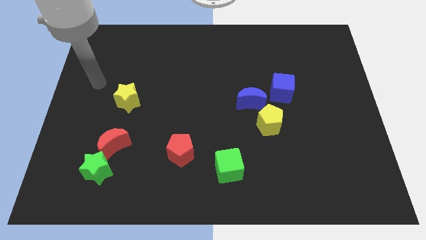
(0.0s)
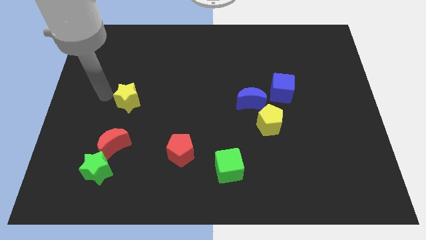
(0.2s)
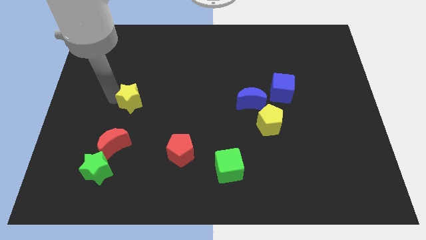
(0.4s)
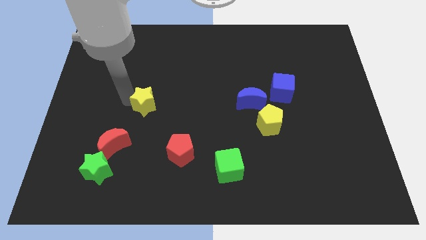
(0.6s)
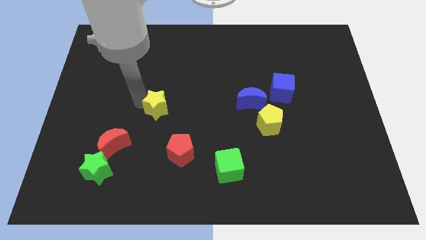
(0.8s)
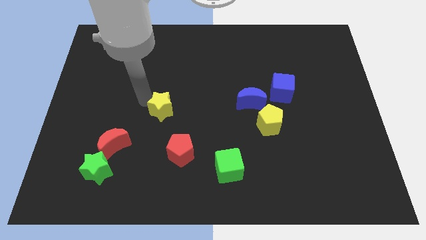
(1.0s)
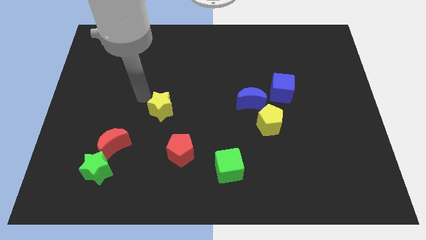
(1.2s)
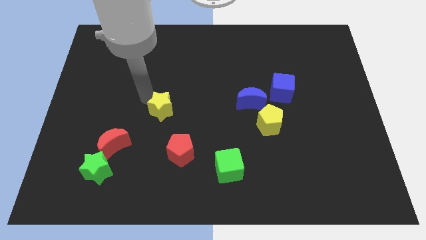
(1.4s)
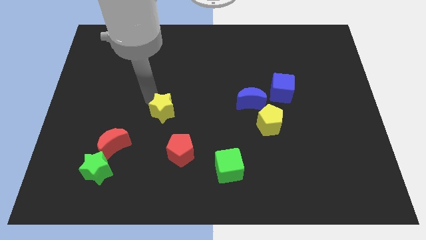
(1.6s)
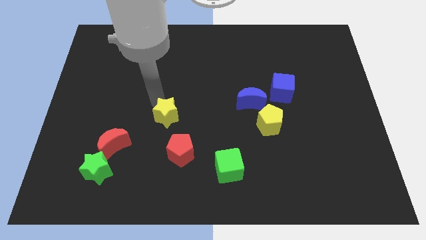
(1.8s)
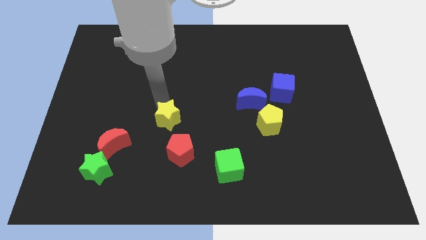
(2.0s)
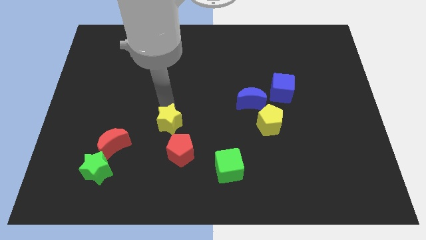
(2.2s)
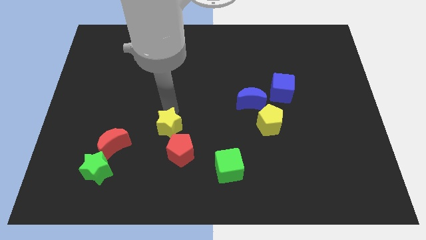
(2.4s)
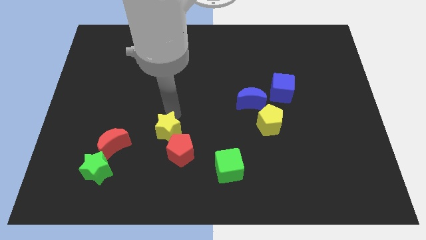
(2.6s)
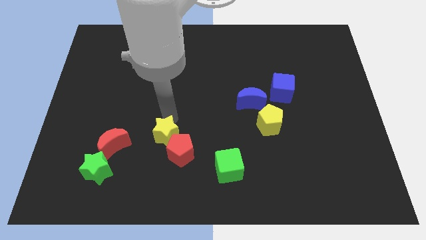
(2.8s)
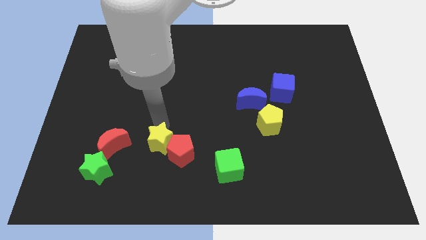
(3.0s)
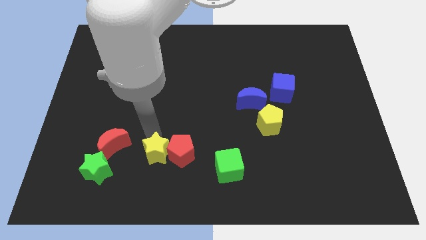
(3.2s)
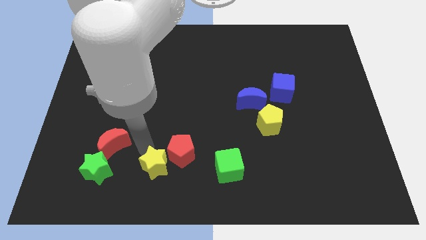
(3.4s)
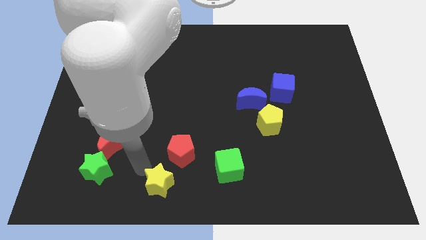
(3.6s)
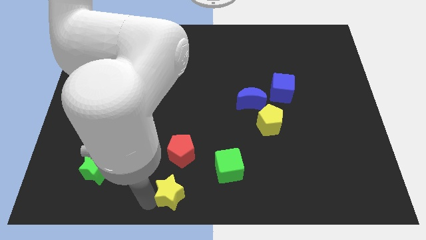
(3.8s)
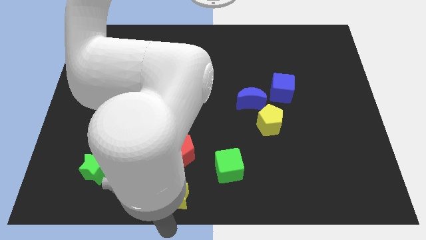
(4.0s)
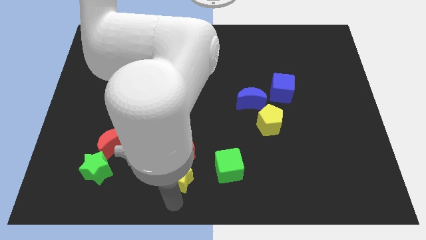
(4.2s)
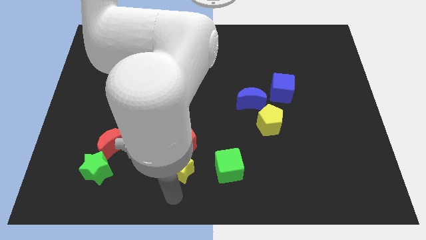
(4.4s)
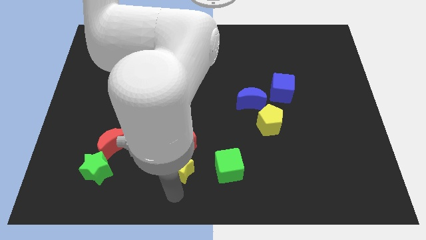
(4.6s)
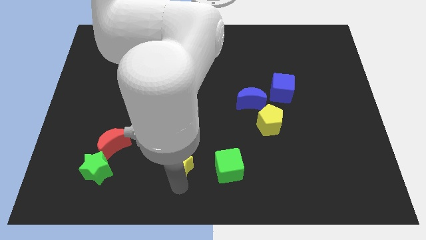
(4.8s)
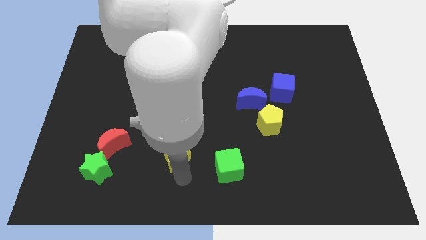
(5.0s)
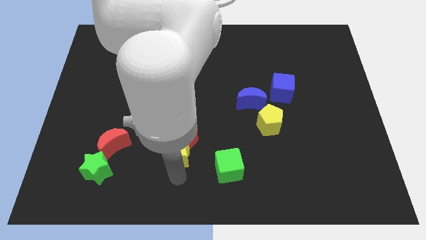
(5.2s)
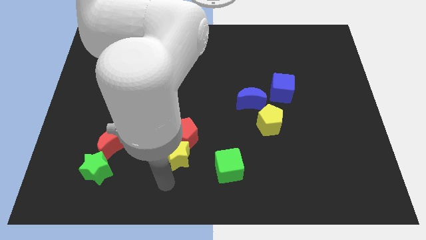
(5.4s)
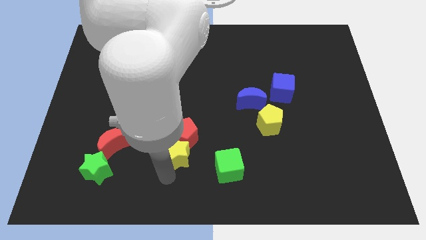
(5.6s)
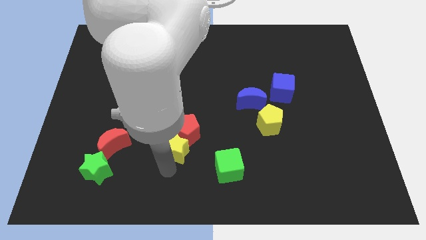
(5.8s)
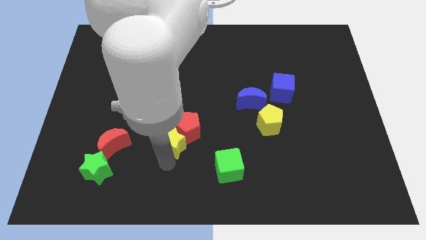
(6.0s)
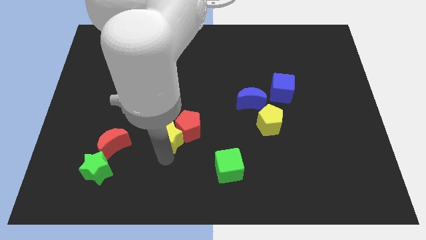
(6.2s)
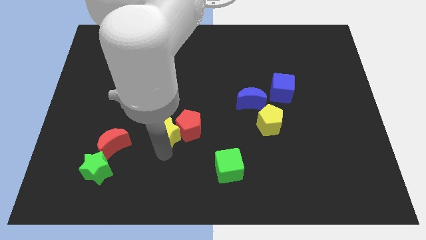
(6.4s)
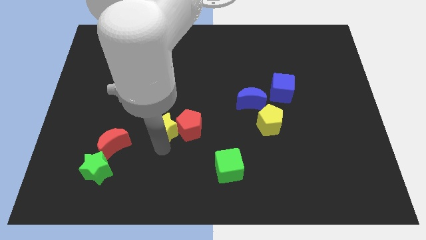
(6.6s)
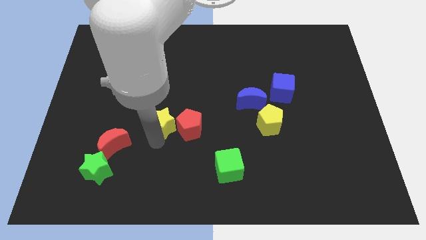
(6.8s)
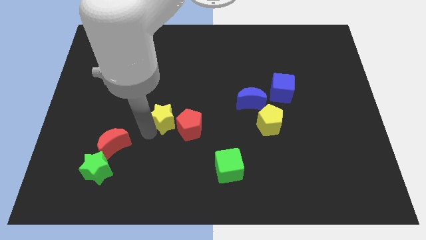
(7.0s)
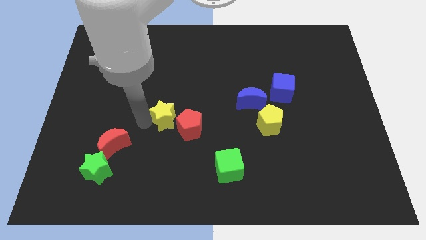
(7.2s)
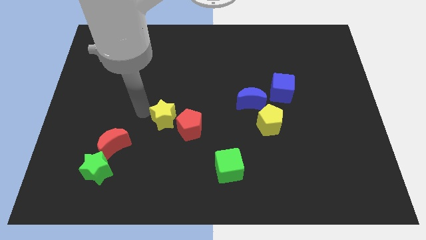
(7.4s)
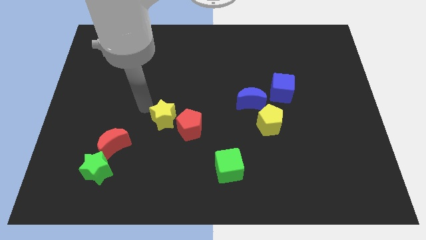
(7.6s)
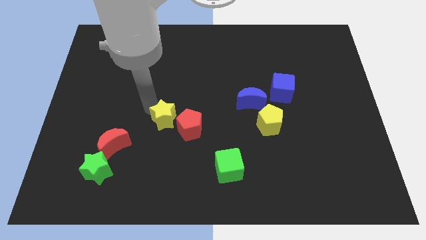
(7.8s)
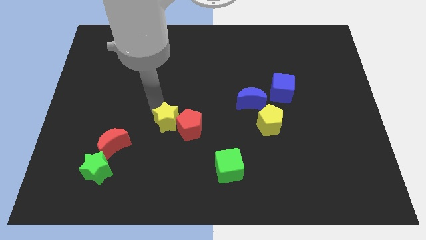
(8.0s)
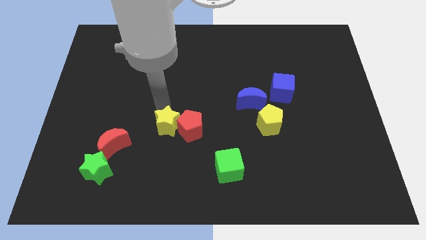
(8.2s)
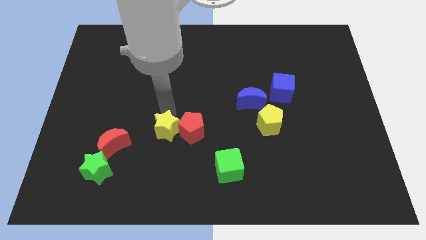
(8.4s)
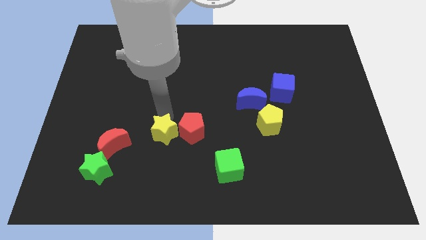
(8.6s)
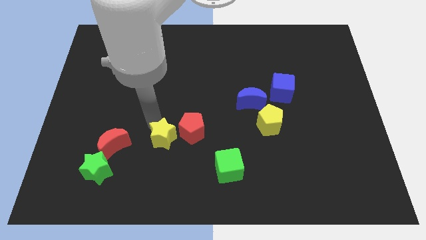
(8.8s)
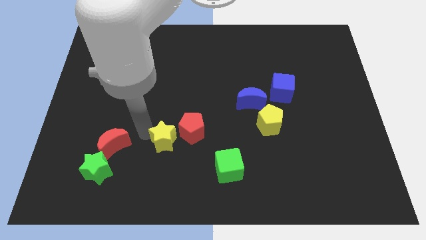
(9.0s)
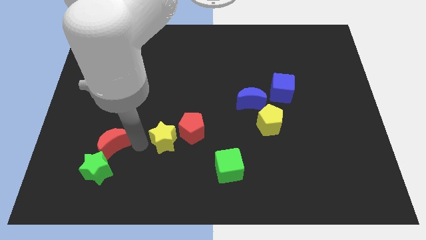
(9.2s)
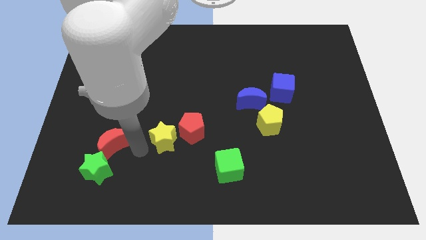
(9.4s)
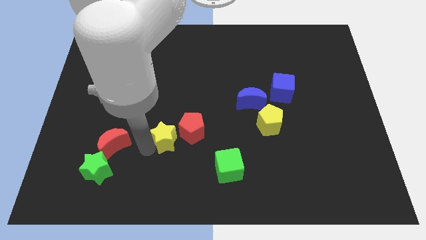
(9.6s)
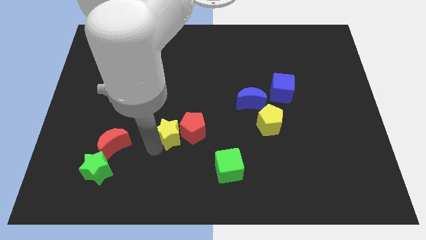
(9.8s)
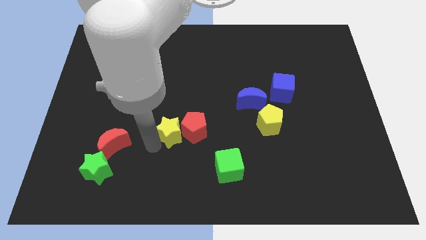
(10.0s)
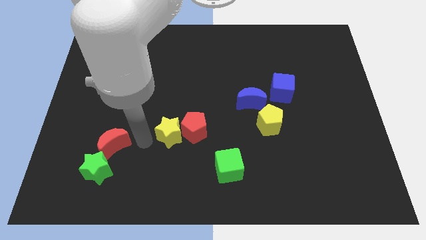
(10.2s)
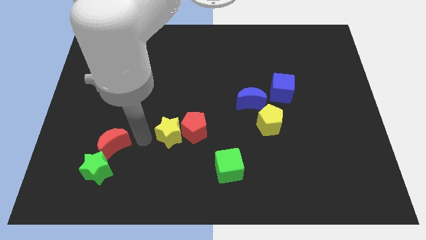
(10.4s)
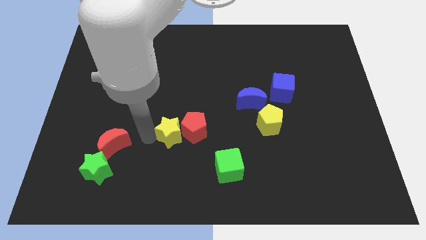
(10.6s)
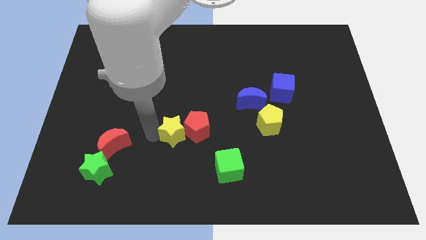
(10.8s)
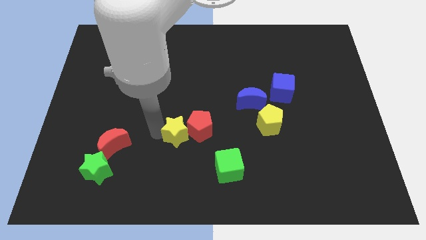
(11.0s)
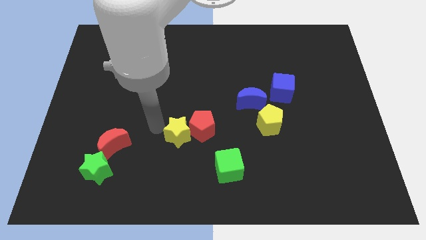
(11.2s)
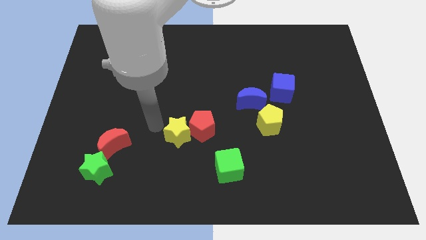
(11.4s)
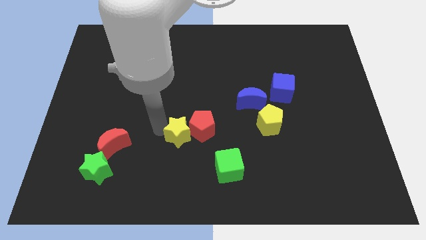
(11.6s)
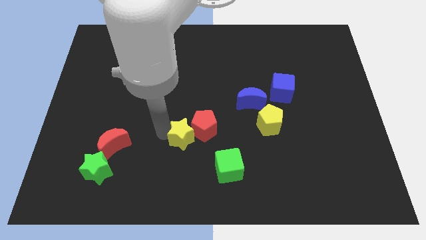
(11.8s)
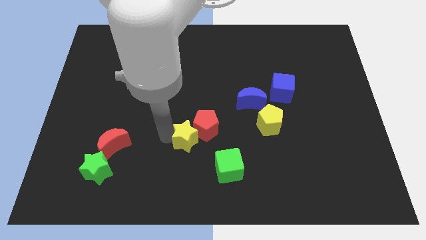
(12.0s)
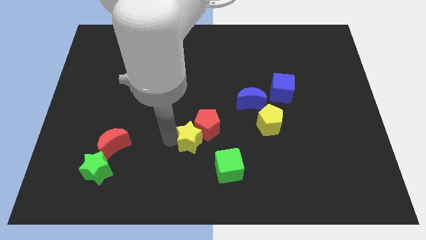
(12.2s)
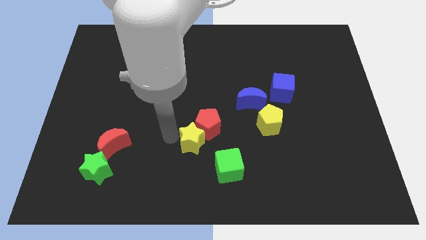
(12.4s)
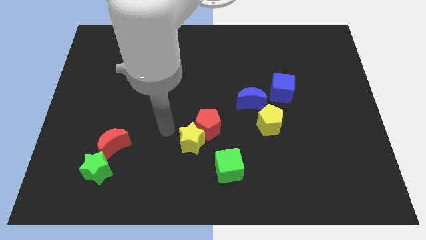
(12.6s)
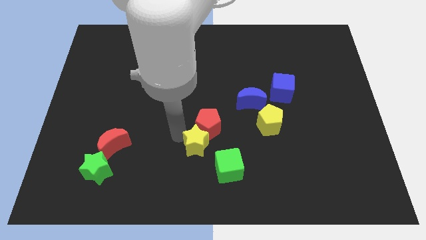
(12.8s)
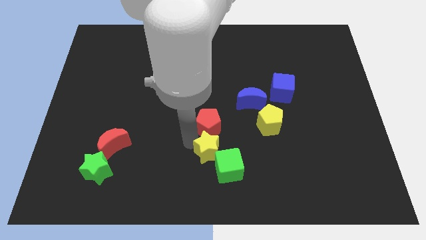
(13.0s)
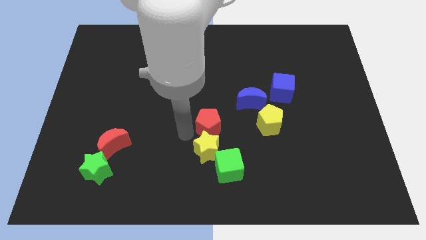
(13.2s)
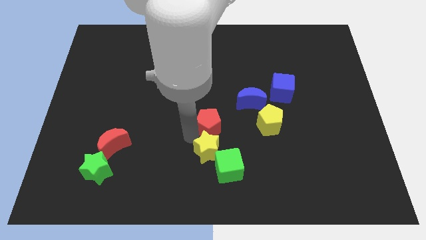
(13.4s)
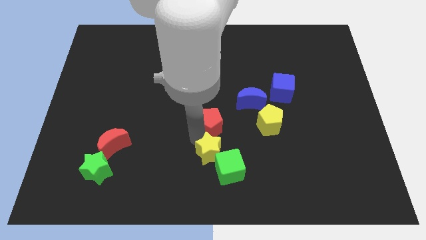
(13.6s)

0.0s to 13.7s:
move the yellow star to the green cube

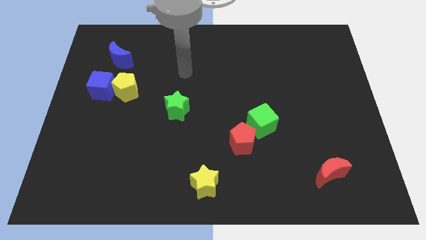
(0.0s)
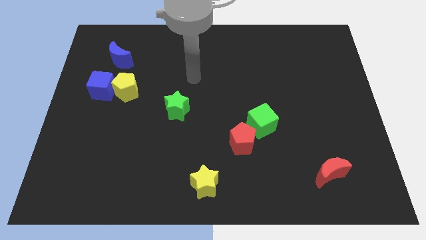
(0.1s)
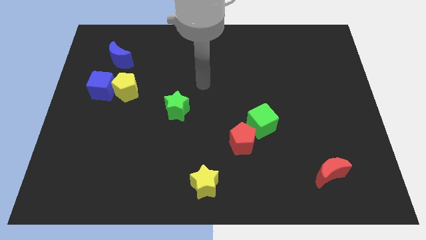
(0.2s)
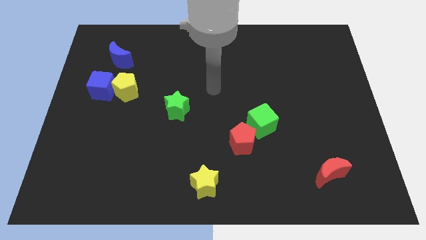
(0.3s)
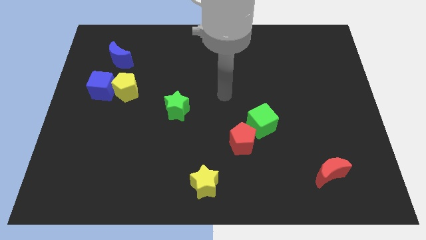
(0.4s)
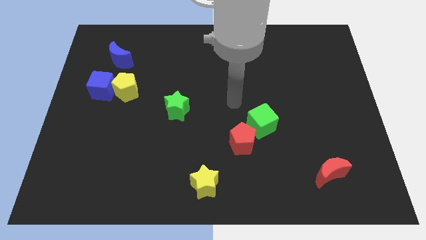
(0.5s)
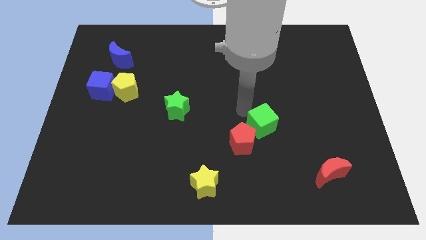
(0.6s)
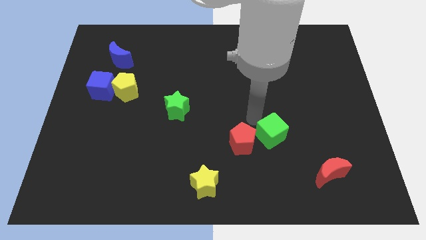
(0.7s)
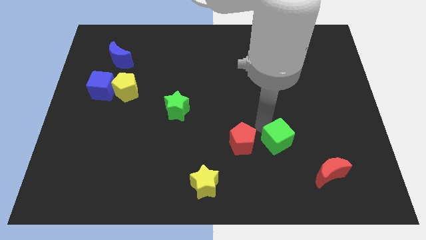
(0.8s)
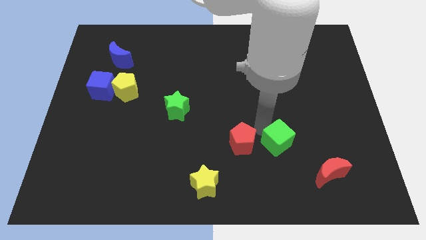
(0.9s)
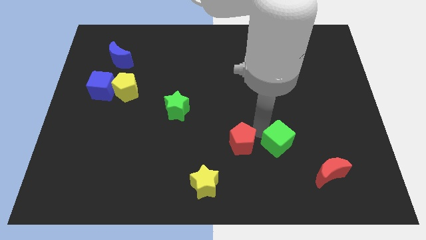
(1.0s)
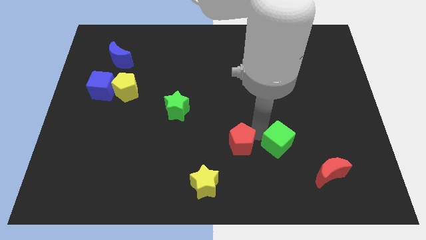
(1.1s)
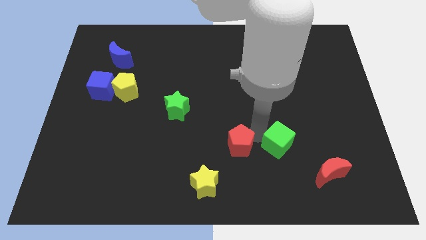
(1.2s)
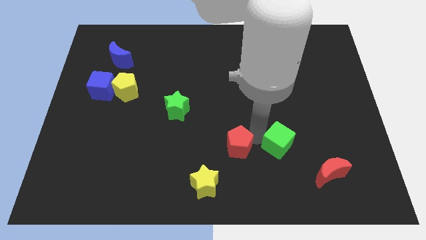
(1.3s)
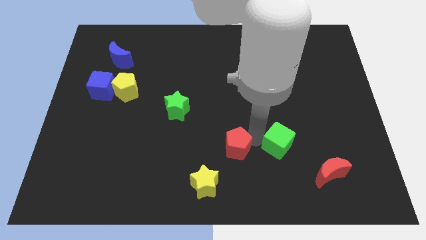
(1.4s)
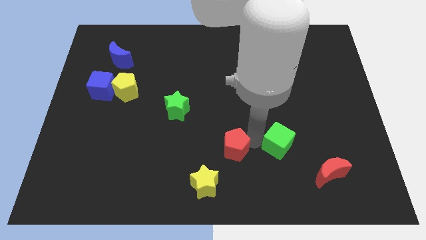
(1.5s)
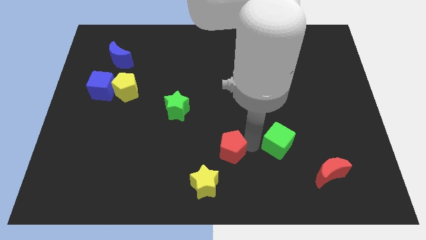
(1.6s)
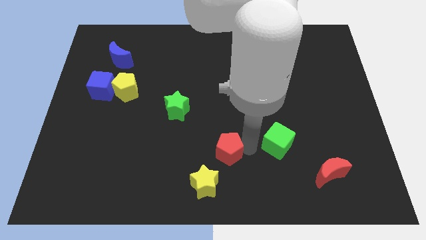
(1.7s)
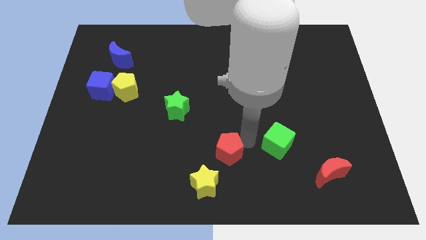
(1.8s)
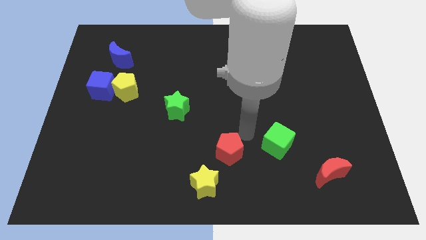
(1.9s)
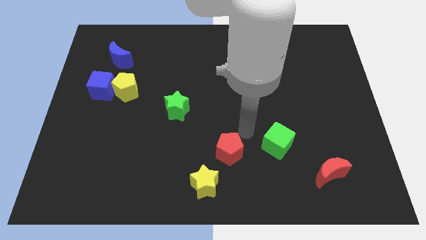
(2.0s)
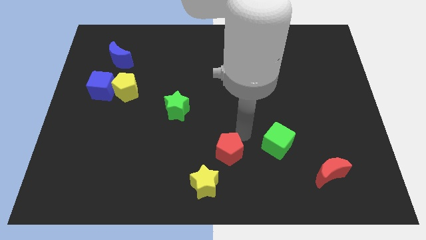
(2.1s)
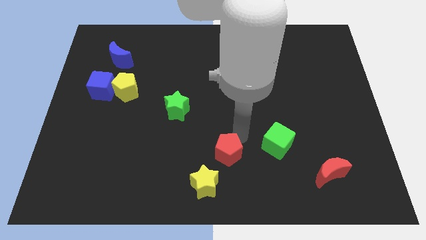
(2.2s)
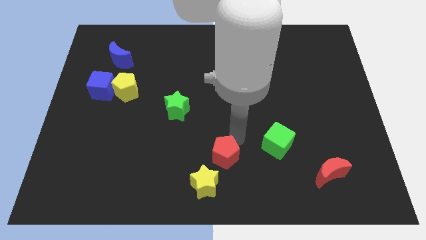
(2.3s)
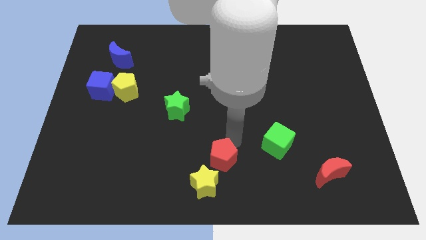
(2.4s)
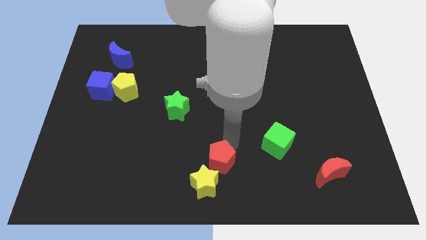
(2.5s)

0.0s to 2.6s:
put the red pentagon close to the yellow star
